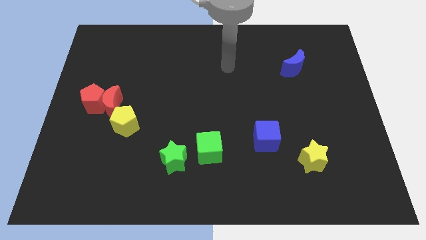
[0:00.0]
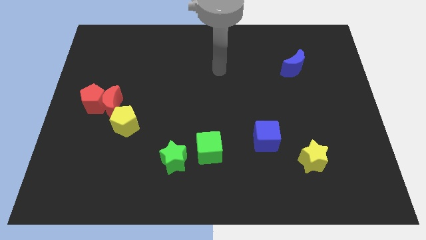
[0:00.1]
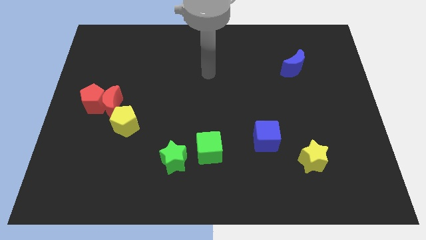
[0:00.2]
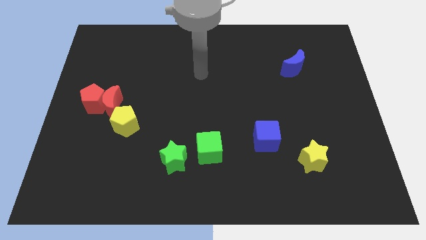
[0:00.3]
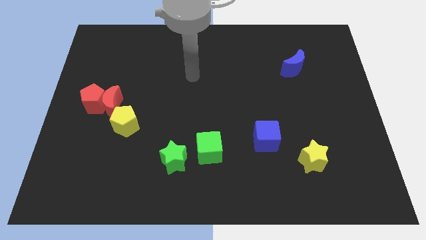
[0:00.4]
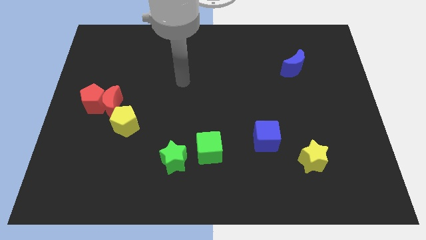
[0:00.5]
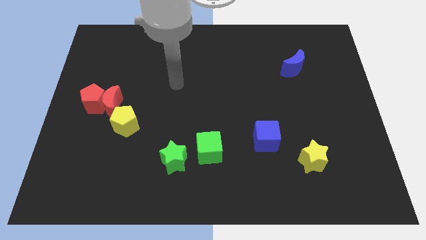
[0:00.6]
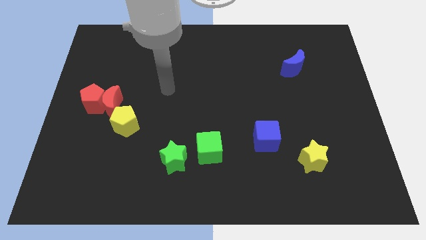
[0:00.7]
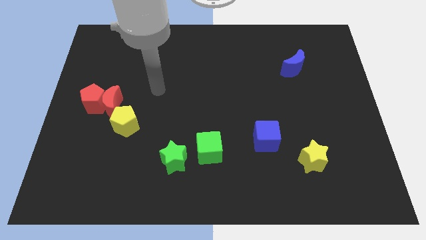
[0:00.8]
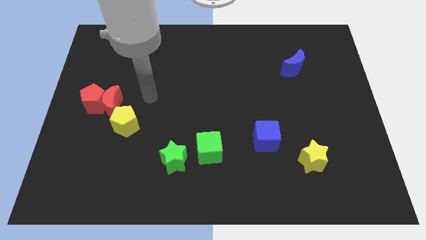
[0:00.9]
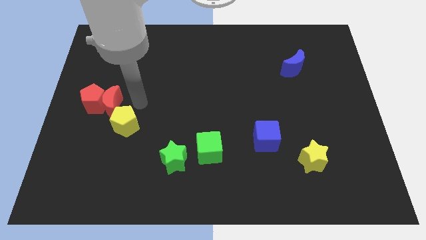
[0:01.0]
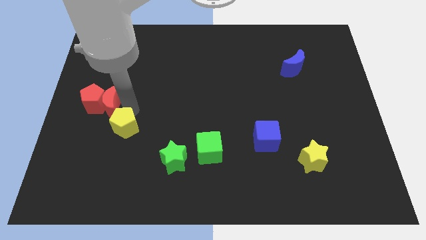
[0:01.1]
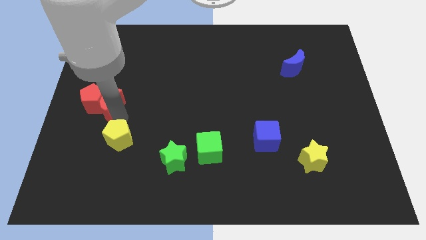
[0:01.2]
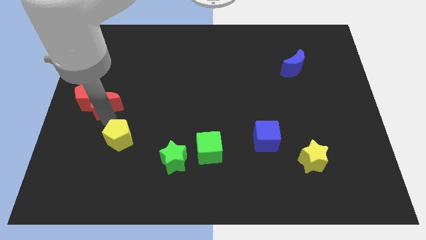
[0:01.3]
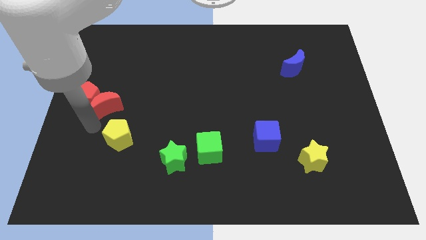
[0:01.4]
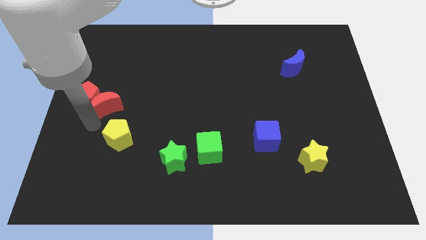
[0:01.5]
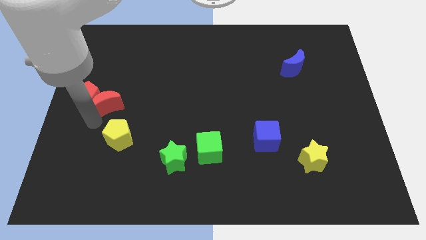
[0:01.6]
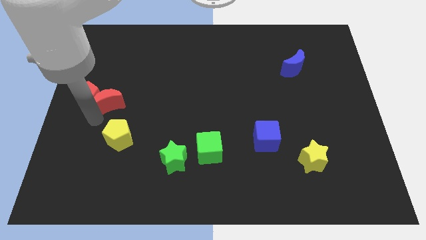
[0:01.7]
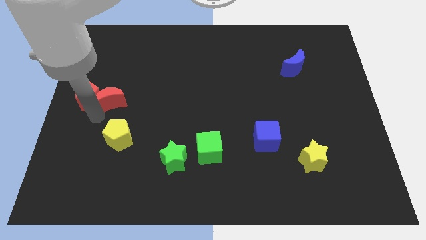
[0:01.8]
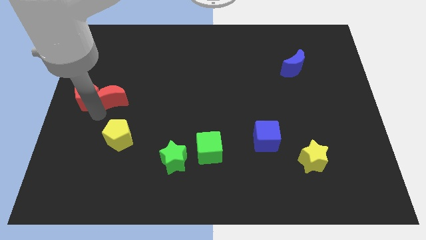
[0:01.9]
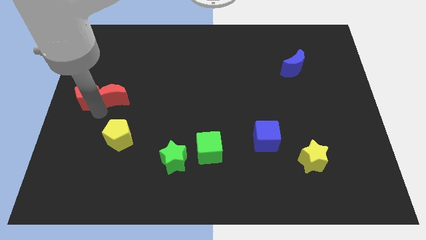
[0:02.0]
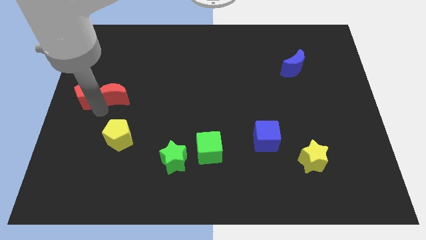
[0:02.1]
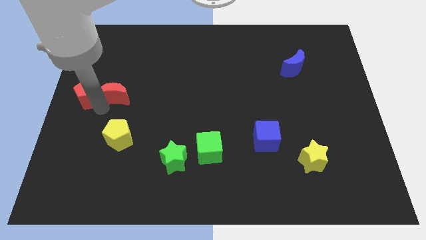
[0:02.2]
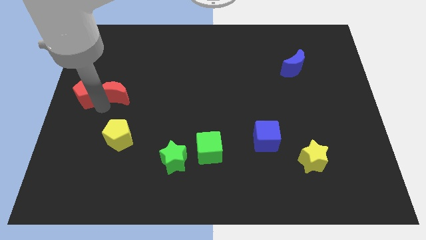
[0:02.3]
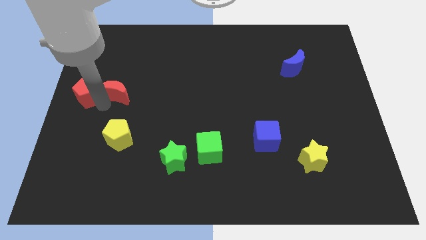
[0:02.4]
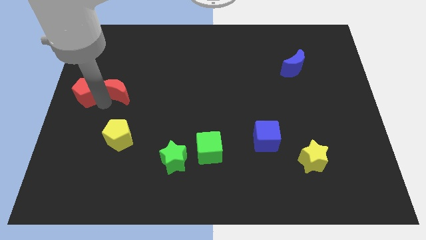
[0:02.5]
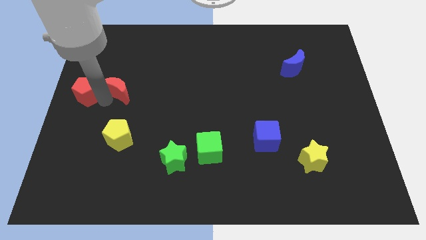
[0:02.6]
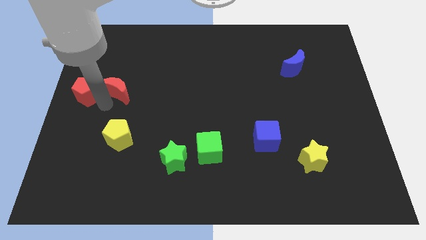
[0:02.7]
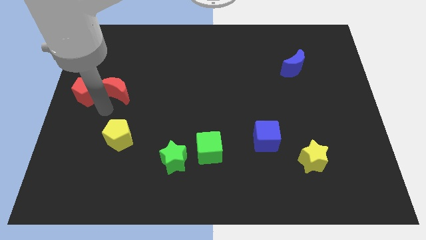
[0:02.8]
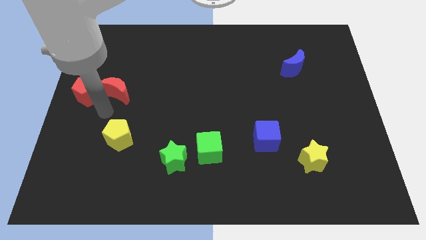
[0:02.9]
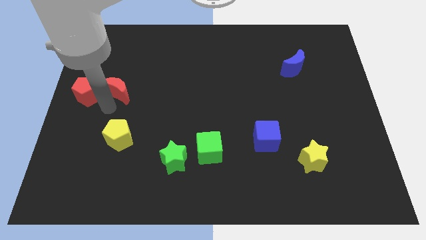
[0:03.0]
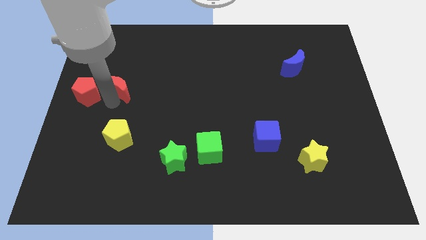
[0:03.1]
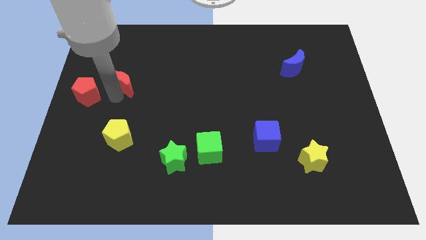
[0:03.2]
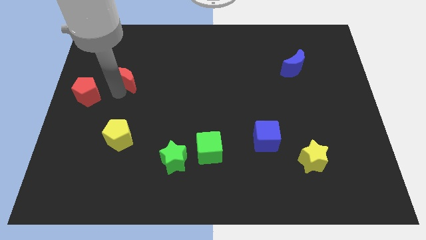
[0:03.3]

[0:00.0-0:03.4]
pull the red moon apart from the red pentagon and yellow pentagon

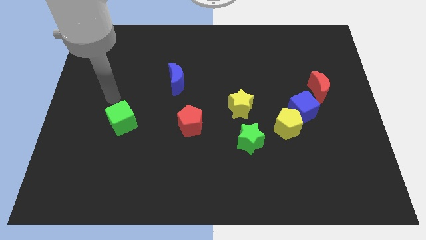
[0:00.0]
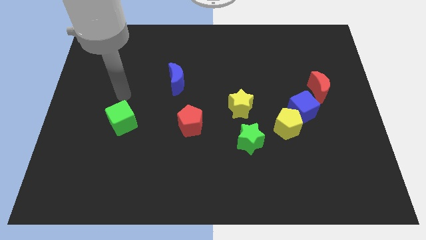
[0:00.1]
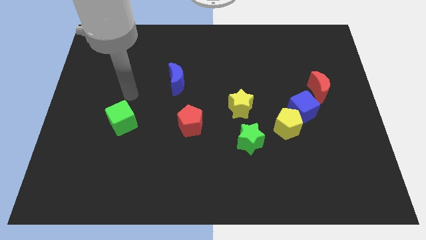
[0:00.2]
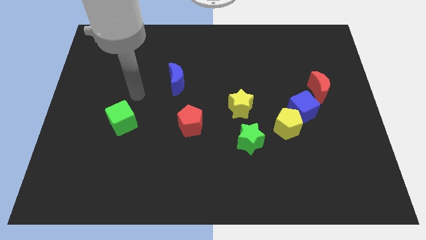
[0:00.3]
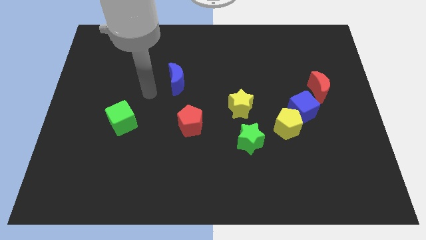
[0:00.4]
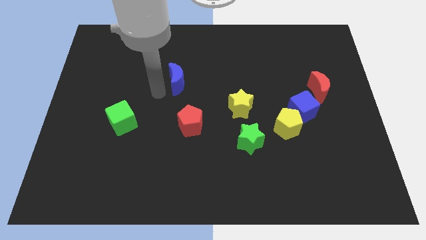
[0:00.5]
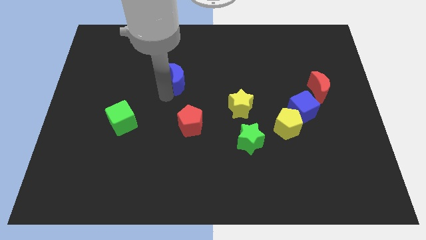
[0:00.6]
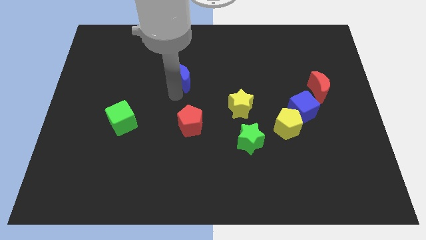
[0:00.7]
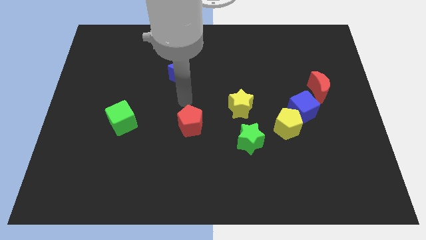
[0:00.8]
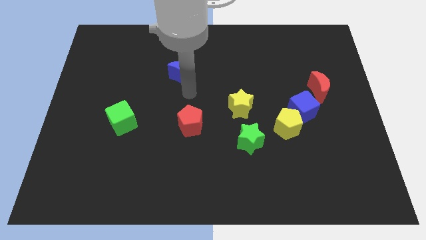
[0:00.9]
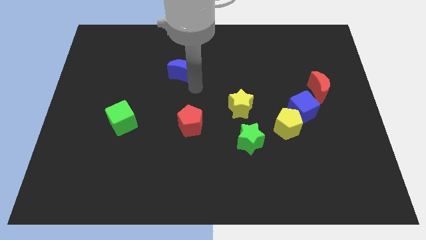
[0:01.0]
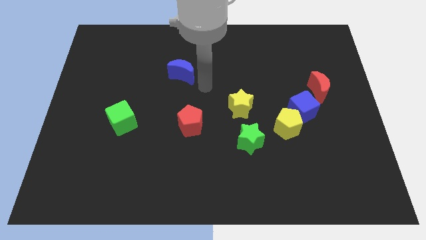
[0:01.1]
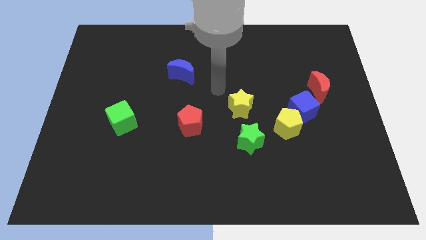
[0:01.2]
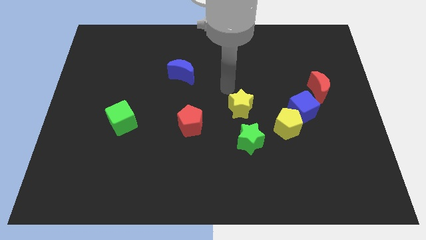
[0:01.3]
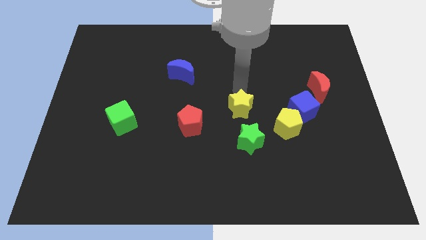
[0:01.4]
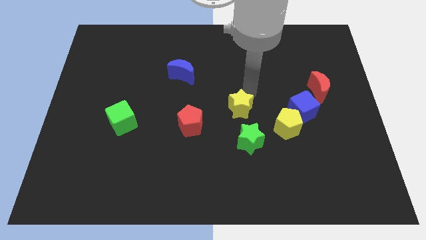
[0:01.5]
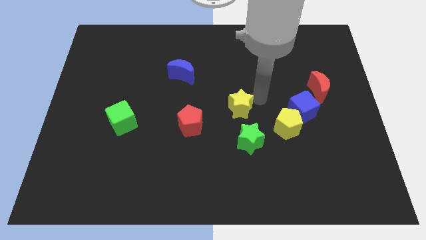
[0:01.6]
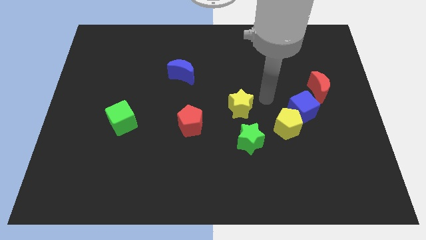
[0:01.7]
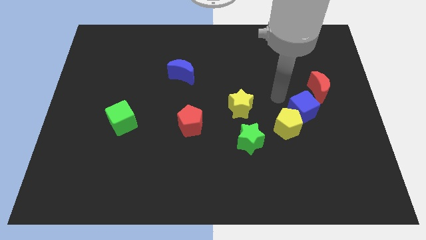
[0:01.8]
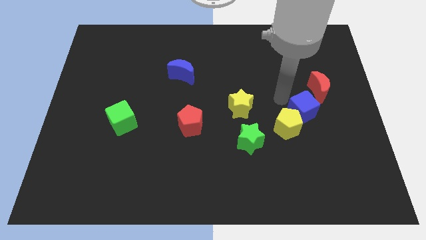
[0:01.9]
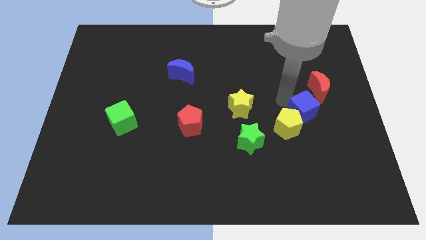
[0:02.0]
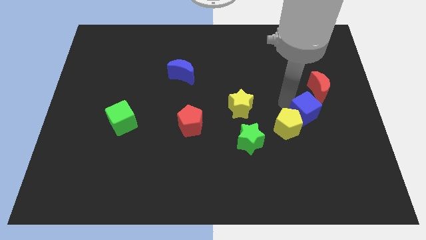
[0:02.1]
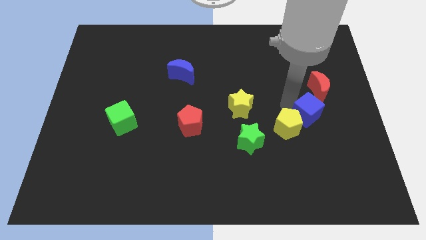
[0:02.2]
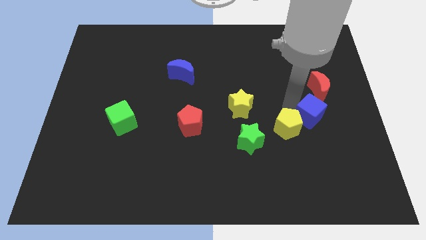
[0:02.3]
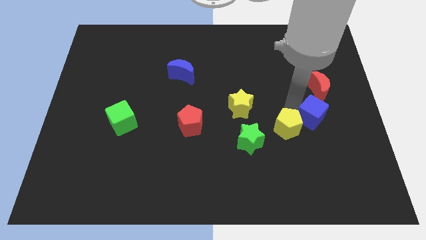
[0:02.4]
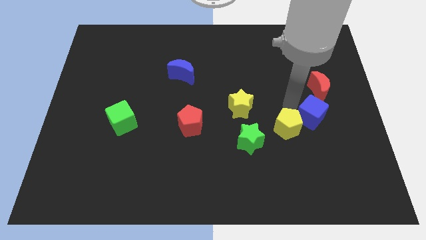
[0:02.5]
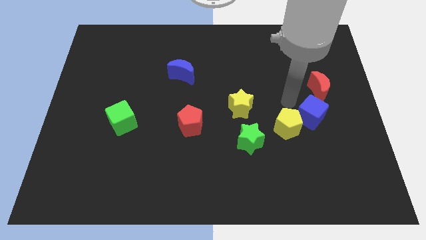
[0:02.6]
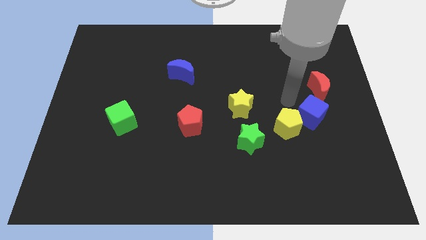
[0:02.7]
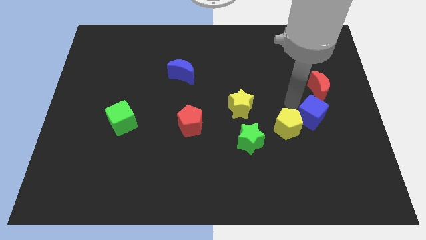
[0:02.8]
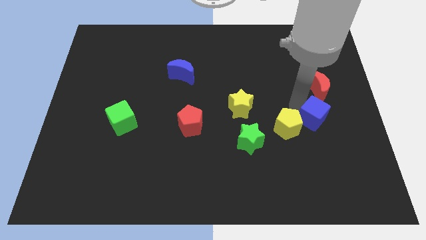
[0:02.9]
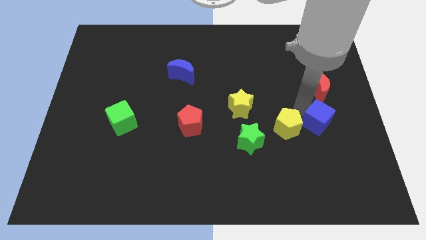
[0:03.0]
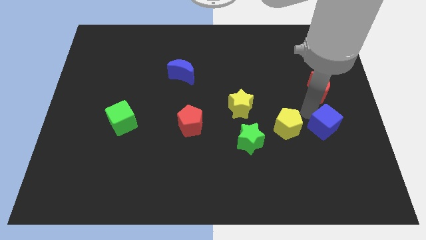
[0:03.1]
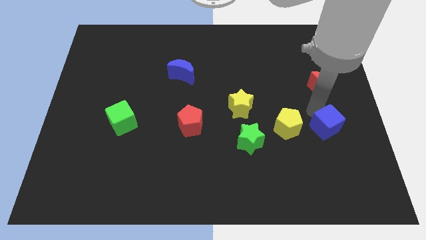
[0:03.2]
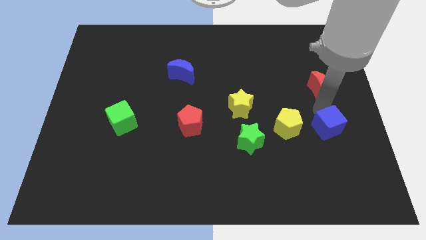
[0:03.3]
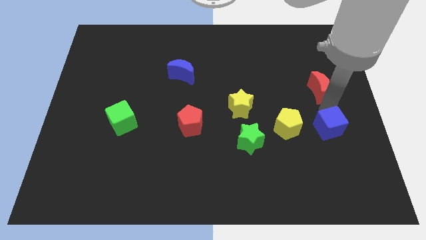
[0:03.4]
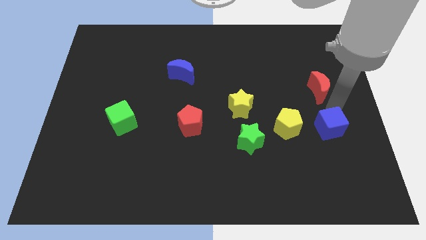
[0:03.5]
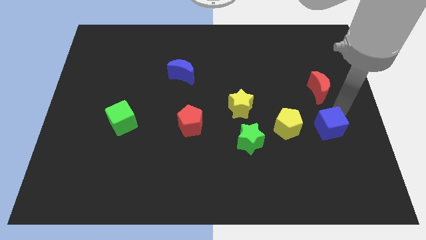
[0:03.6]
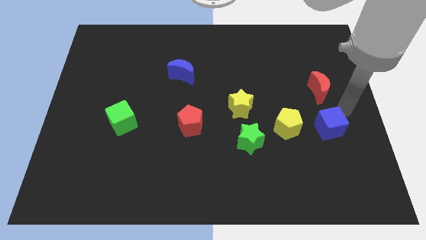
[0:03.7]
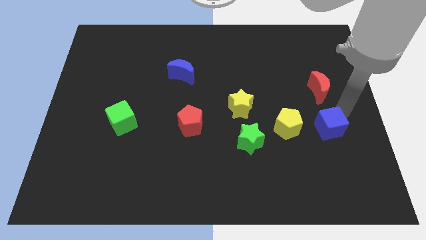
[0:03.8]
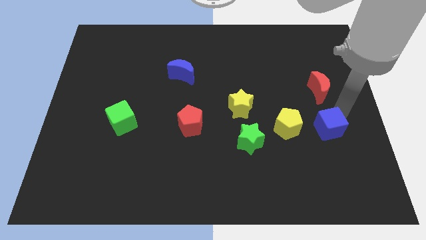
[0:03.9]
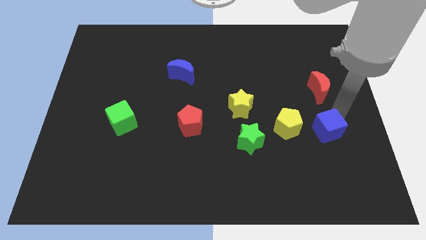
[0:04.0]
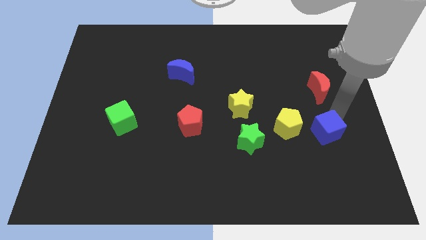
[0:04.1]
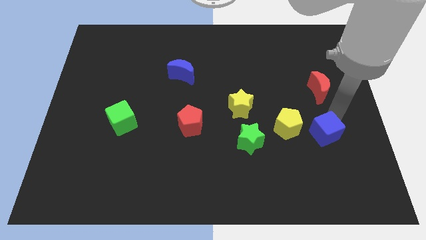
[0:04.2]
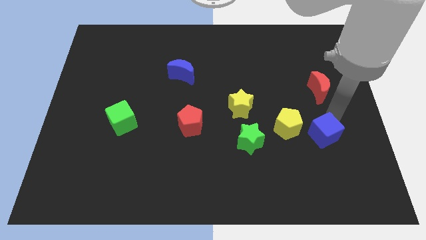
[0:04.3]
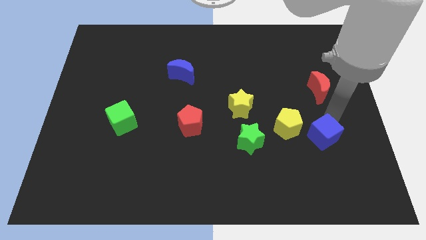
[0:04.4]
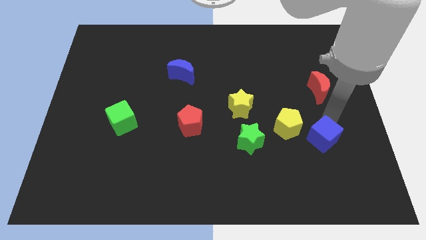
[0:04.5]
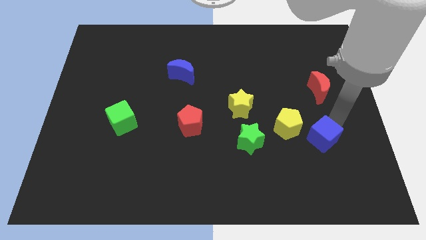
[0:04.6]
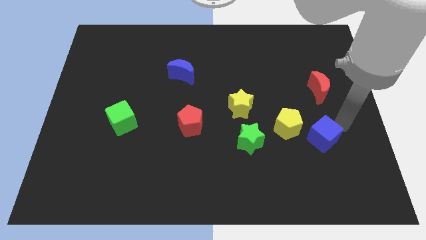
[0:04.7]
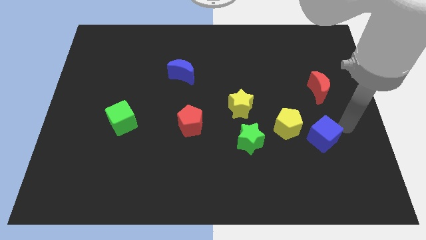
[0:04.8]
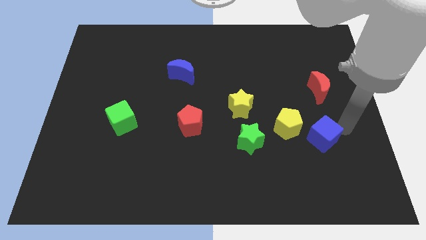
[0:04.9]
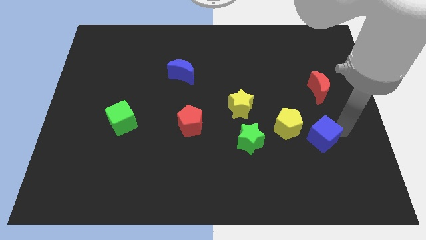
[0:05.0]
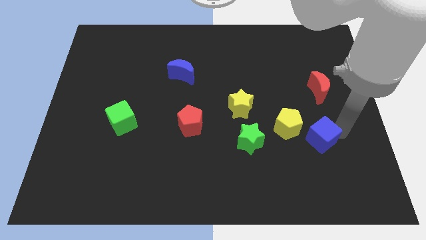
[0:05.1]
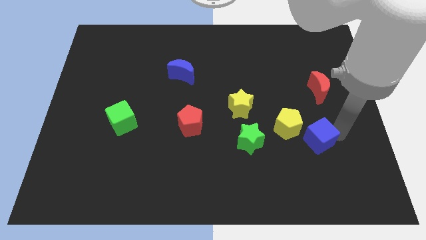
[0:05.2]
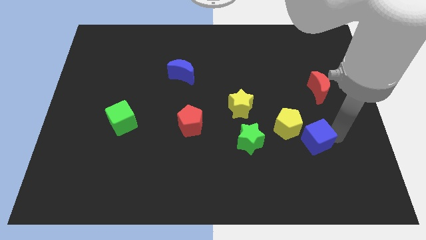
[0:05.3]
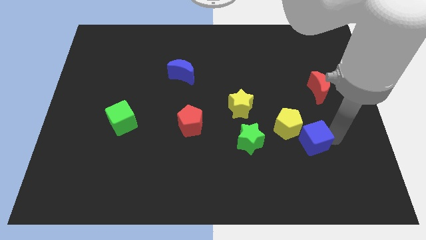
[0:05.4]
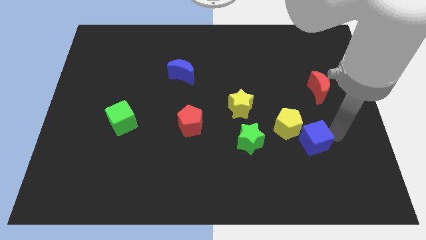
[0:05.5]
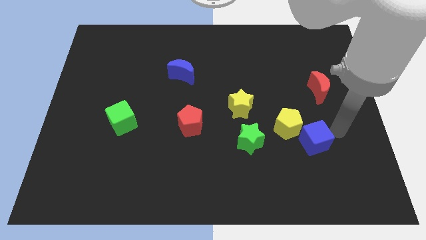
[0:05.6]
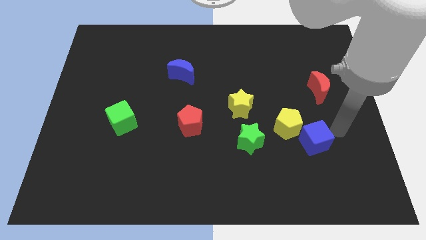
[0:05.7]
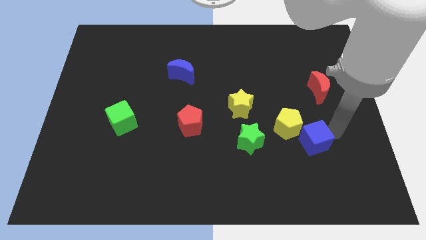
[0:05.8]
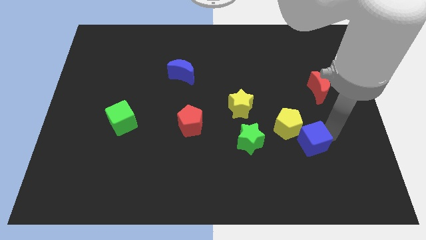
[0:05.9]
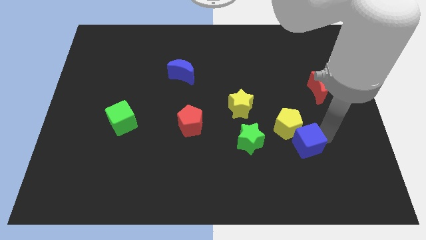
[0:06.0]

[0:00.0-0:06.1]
move the blue cube away from the yellow pentagon and red moon
